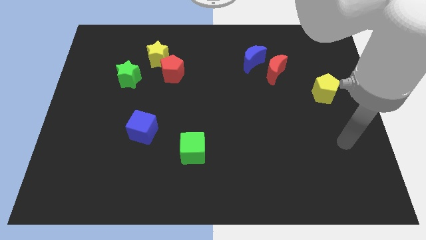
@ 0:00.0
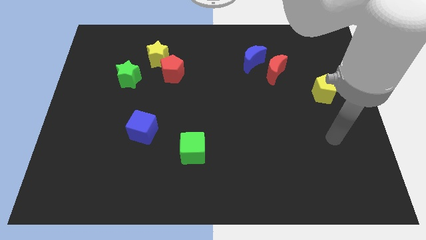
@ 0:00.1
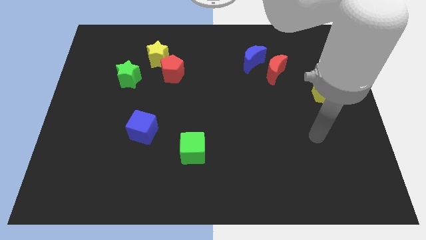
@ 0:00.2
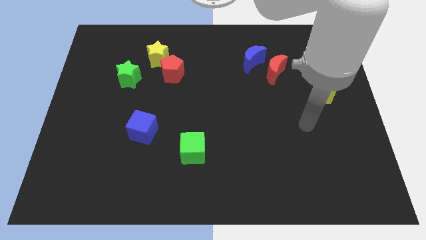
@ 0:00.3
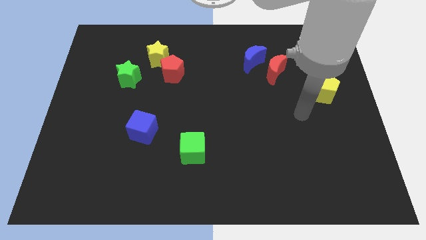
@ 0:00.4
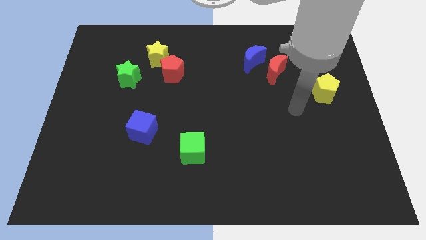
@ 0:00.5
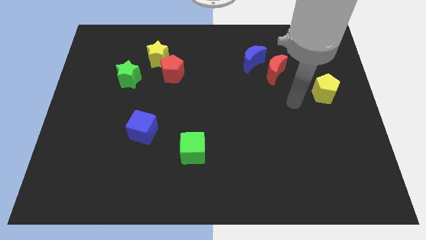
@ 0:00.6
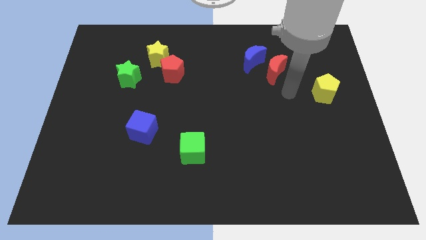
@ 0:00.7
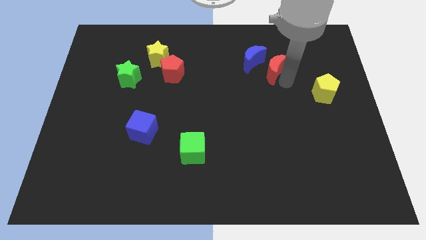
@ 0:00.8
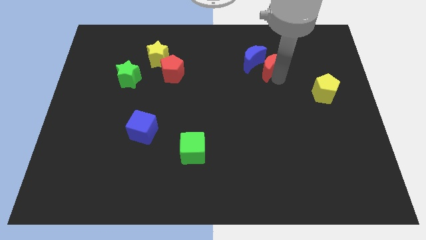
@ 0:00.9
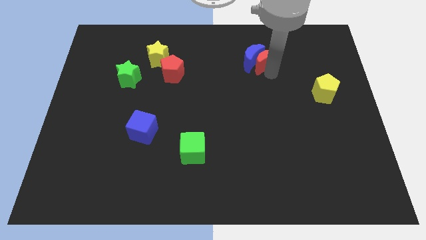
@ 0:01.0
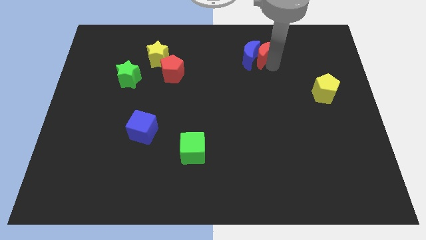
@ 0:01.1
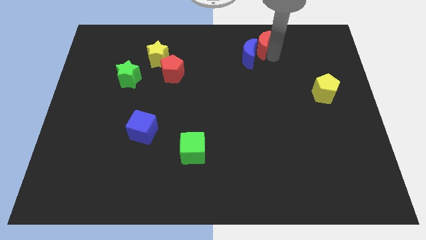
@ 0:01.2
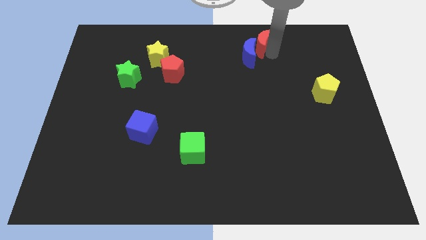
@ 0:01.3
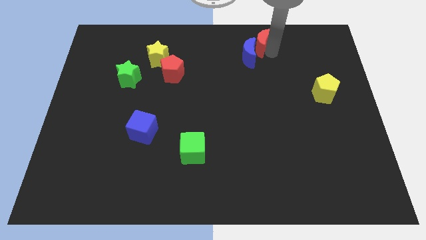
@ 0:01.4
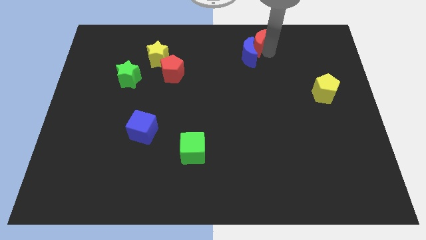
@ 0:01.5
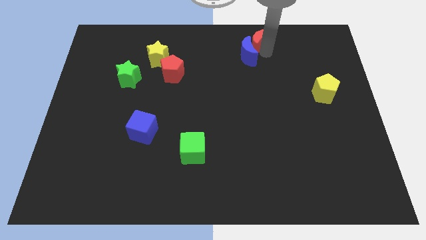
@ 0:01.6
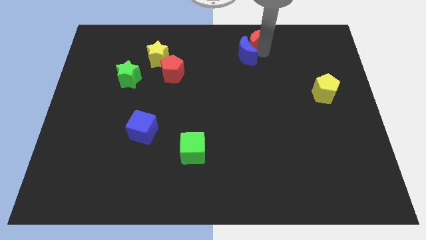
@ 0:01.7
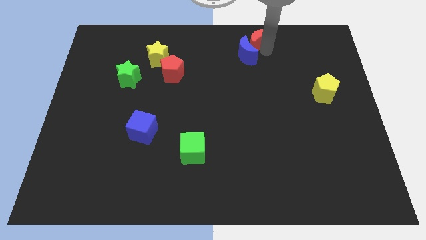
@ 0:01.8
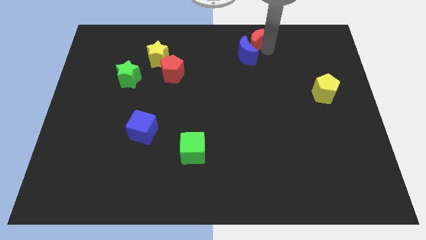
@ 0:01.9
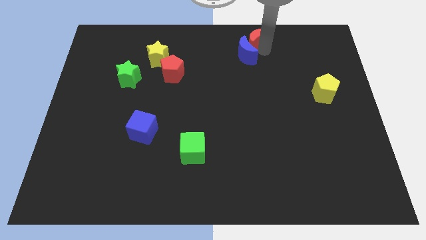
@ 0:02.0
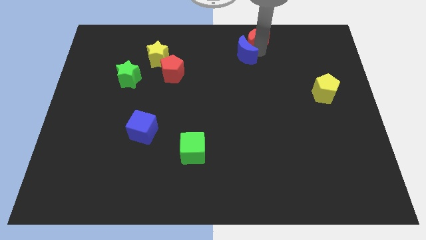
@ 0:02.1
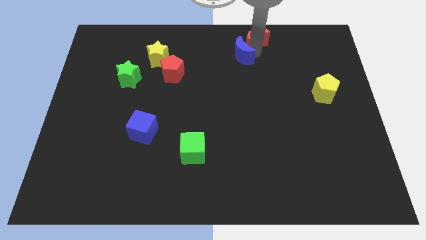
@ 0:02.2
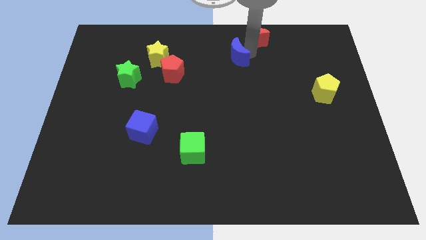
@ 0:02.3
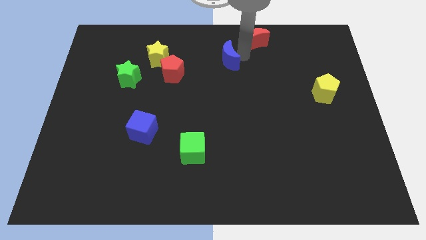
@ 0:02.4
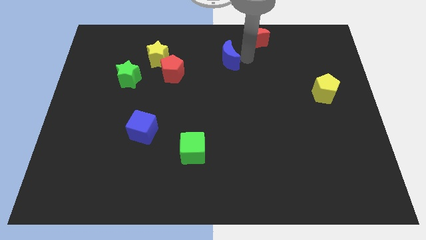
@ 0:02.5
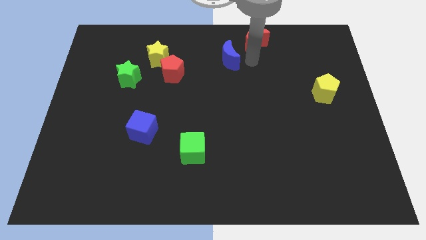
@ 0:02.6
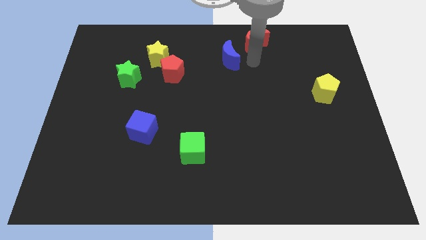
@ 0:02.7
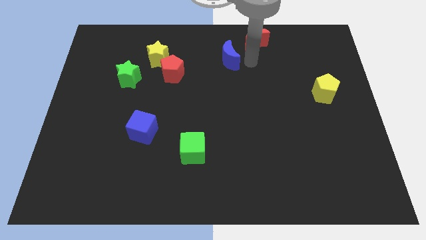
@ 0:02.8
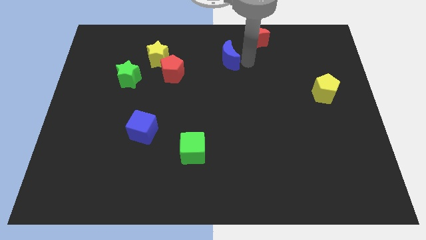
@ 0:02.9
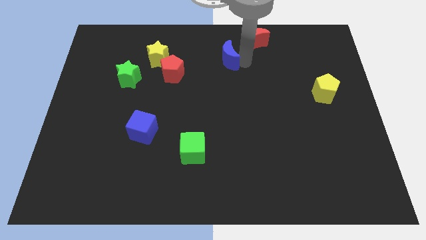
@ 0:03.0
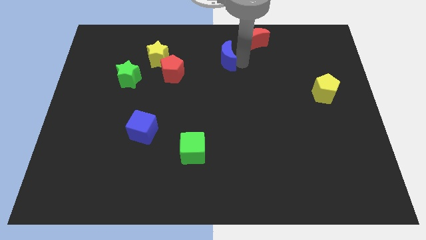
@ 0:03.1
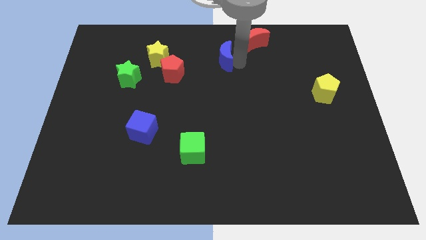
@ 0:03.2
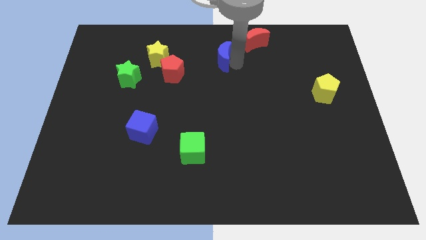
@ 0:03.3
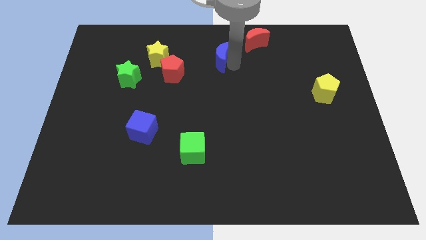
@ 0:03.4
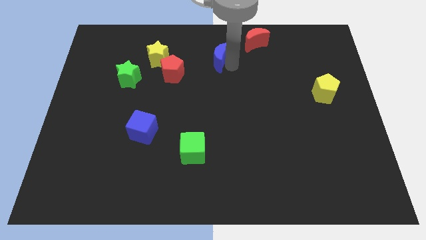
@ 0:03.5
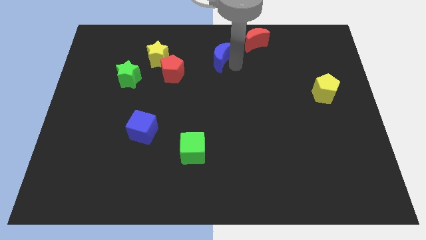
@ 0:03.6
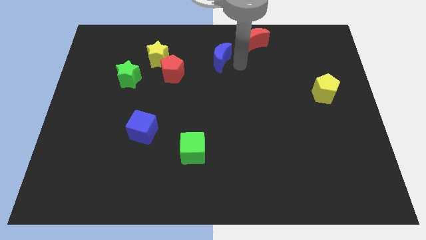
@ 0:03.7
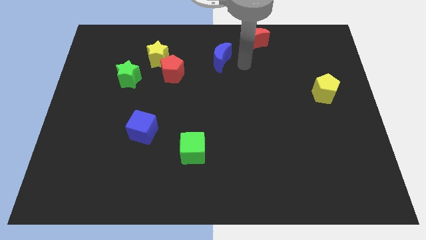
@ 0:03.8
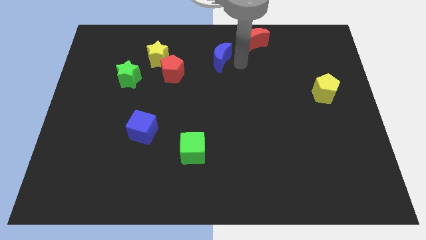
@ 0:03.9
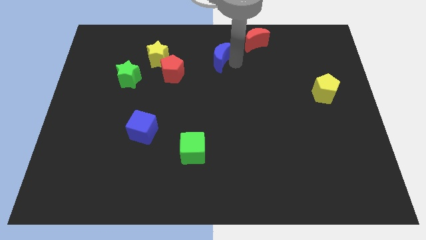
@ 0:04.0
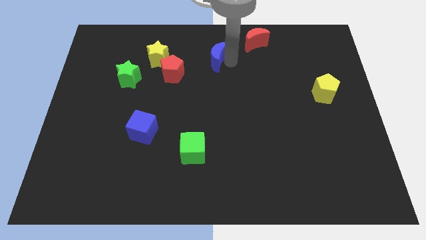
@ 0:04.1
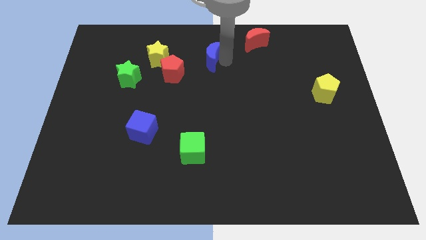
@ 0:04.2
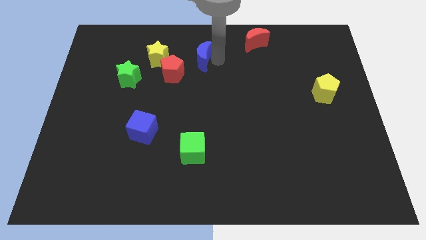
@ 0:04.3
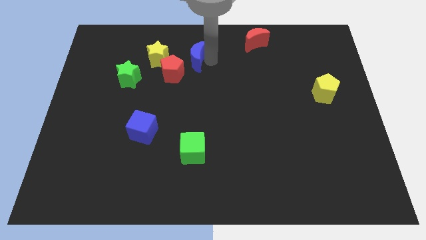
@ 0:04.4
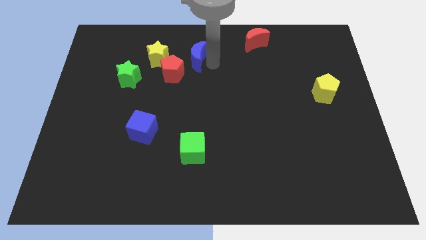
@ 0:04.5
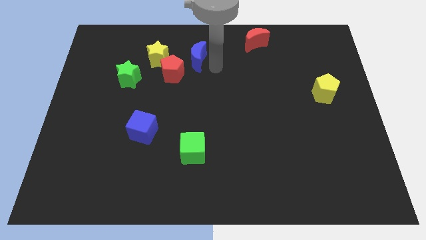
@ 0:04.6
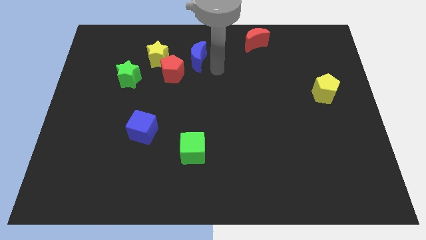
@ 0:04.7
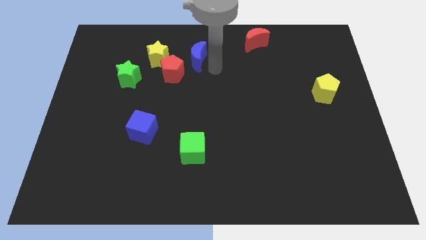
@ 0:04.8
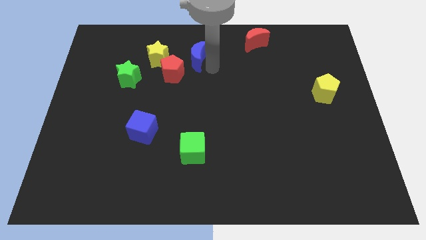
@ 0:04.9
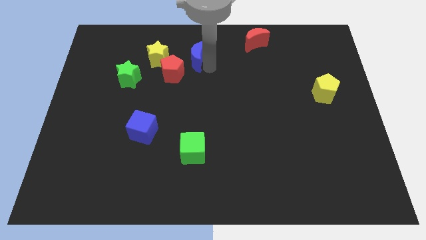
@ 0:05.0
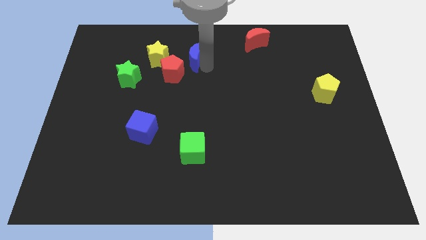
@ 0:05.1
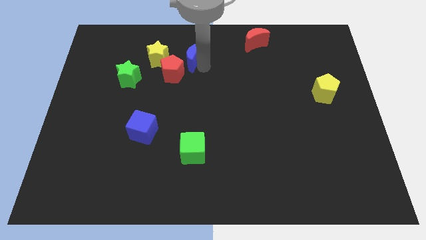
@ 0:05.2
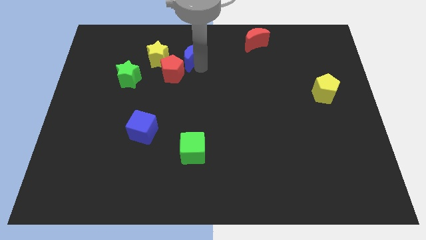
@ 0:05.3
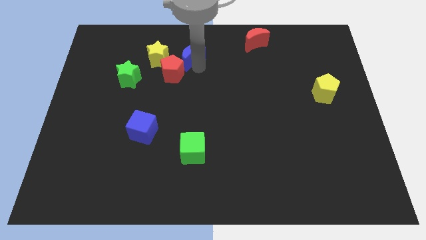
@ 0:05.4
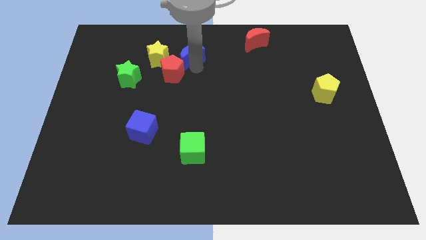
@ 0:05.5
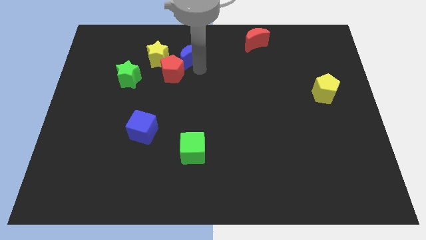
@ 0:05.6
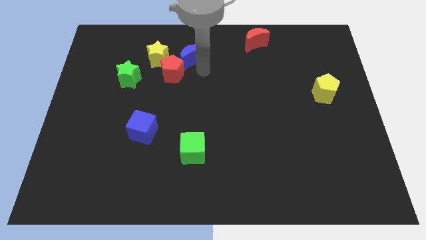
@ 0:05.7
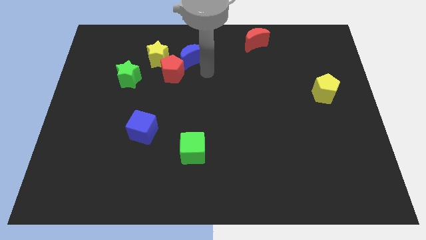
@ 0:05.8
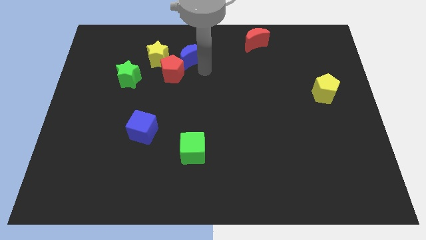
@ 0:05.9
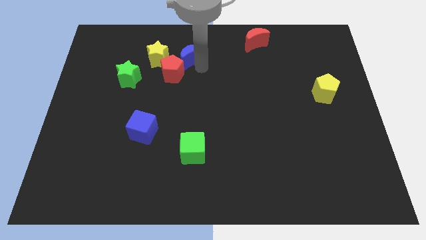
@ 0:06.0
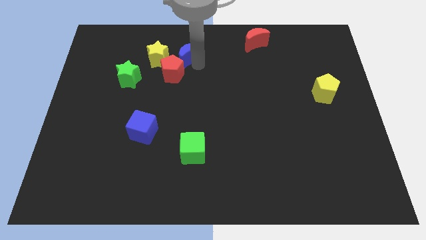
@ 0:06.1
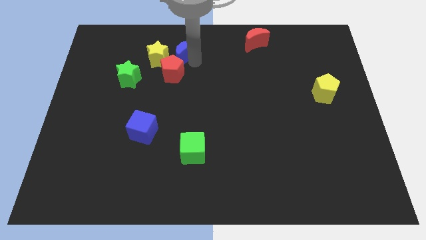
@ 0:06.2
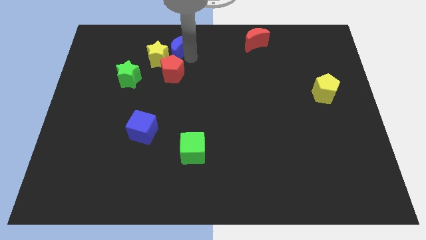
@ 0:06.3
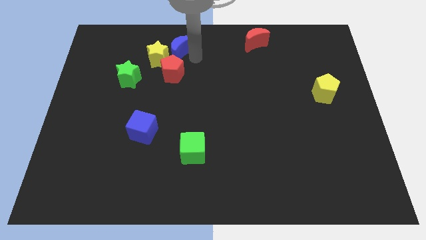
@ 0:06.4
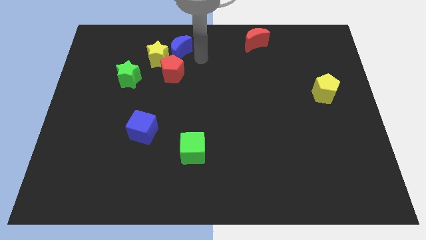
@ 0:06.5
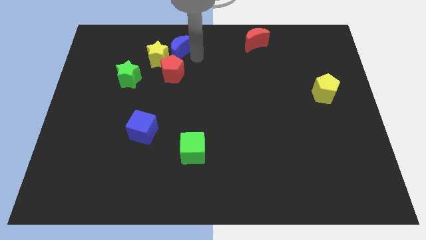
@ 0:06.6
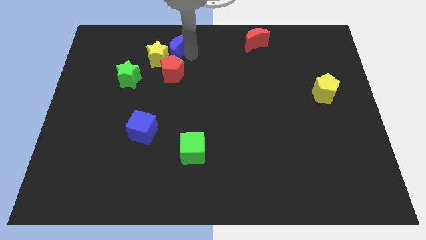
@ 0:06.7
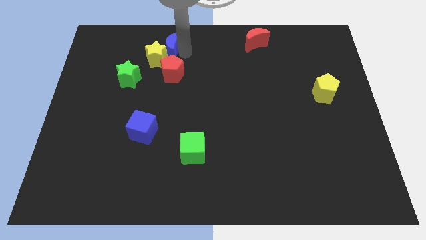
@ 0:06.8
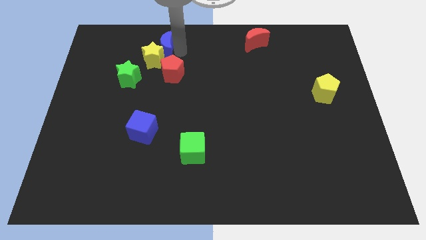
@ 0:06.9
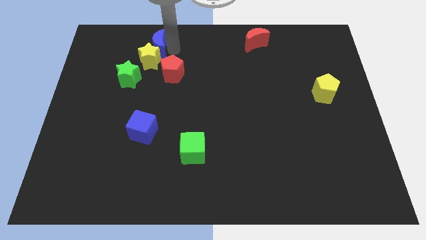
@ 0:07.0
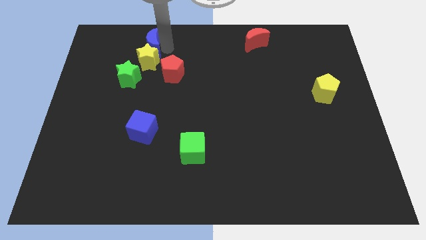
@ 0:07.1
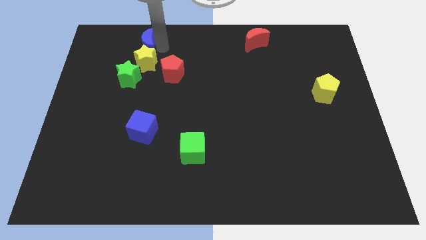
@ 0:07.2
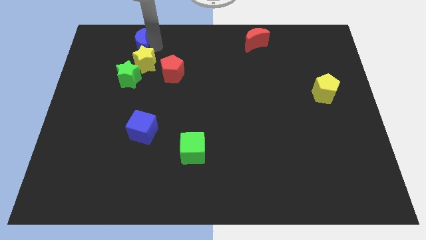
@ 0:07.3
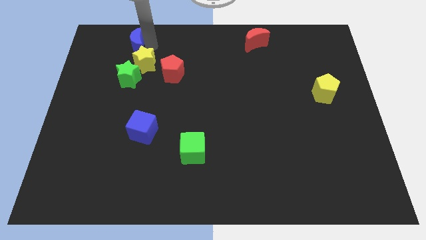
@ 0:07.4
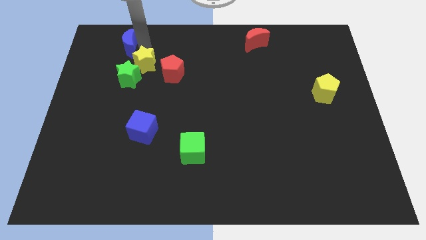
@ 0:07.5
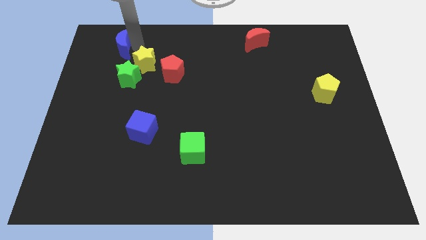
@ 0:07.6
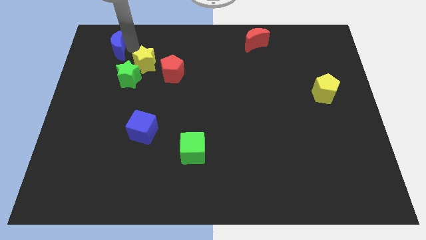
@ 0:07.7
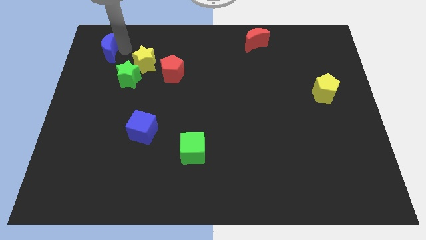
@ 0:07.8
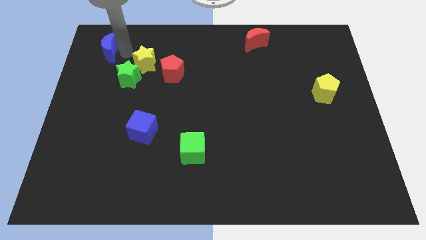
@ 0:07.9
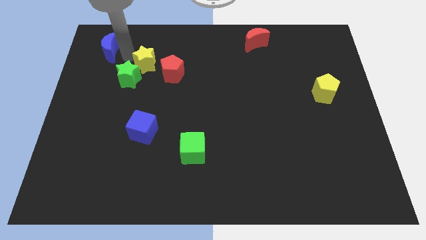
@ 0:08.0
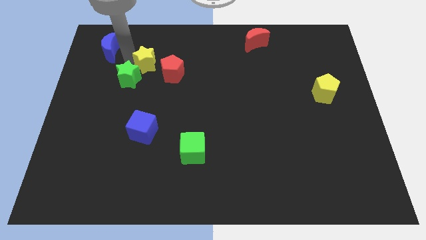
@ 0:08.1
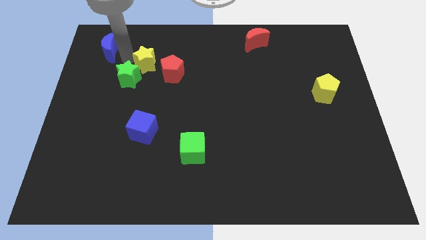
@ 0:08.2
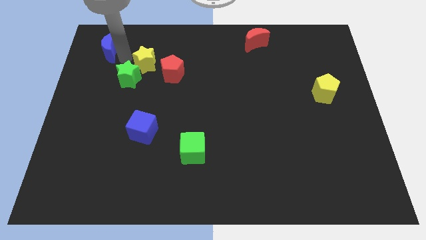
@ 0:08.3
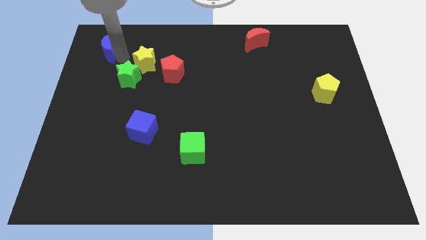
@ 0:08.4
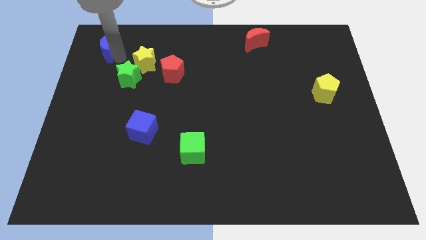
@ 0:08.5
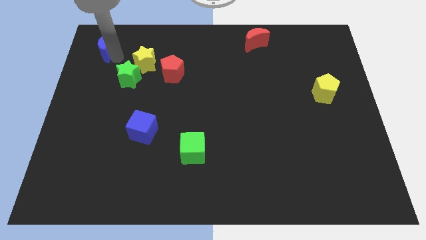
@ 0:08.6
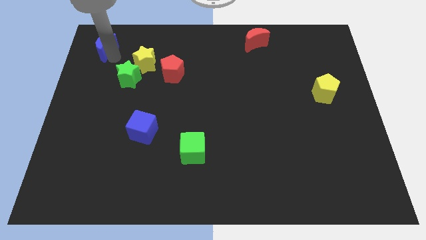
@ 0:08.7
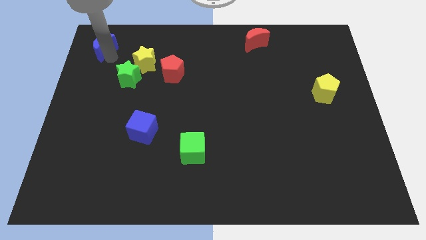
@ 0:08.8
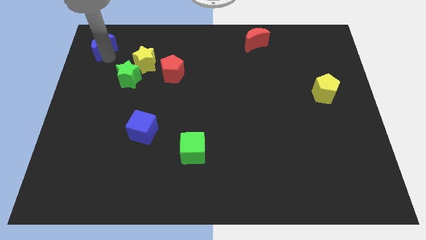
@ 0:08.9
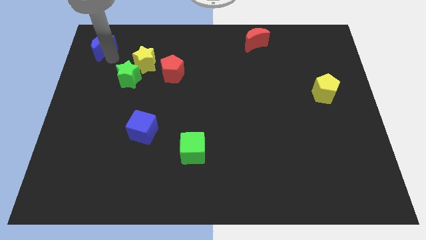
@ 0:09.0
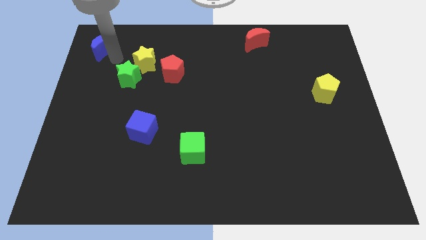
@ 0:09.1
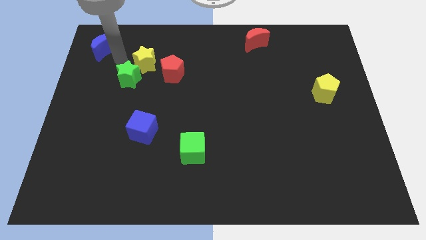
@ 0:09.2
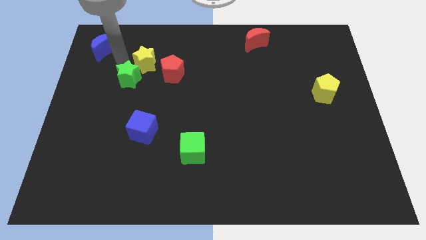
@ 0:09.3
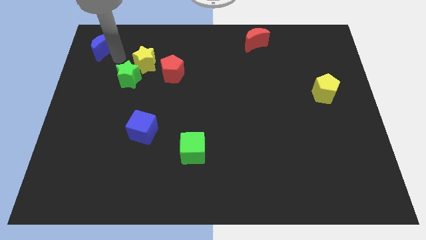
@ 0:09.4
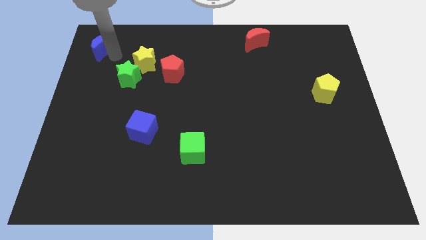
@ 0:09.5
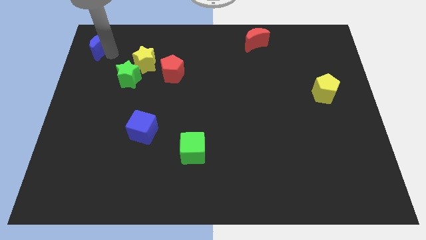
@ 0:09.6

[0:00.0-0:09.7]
slide the blue moon to the top left corner
